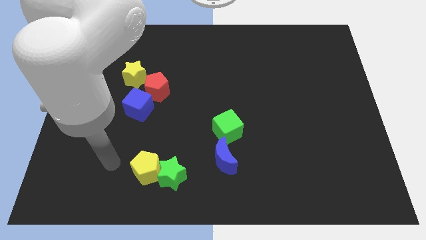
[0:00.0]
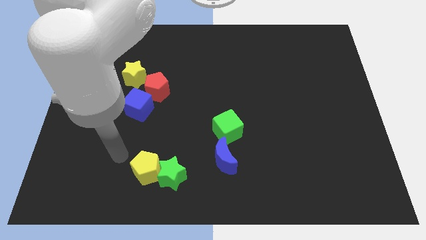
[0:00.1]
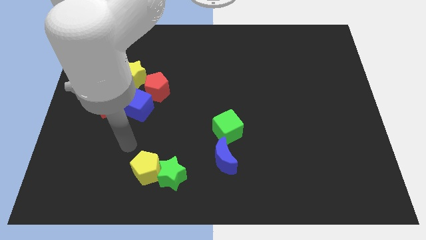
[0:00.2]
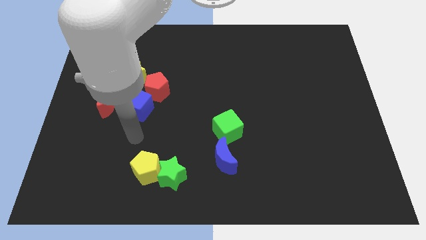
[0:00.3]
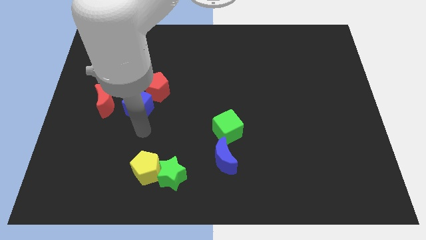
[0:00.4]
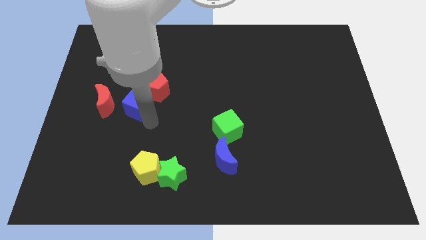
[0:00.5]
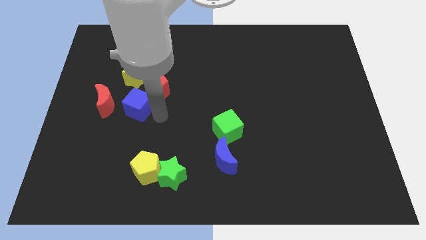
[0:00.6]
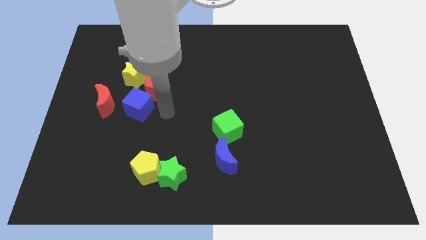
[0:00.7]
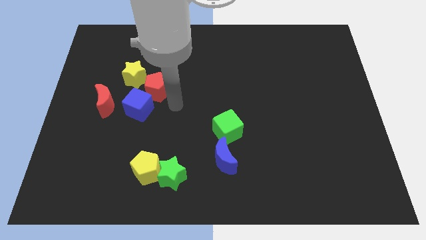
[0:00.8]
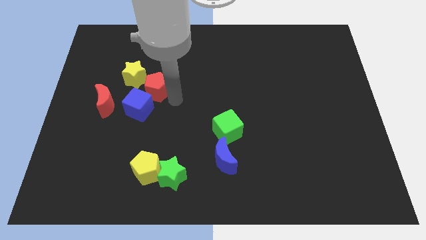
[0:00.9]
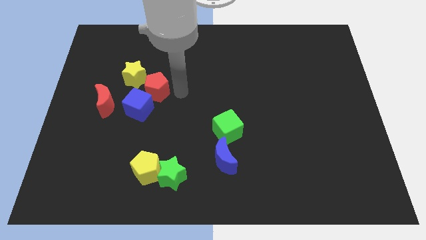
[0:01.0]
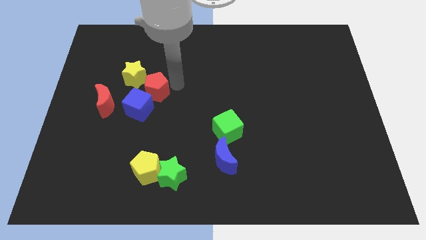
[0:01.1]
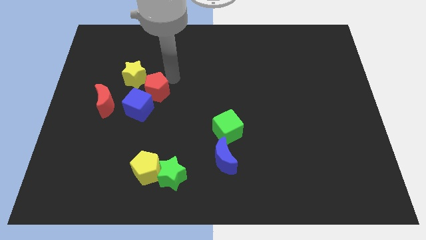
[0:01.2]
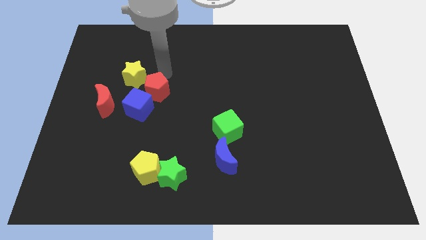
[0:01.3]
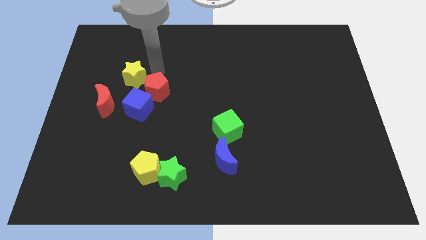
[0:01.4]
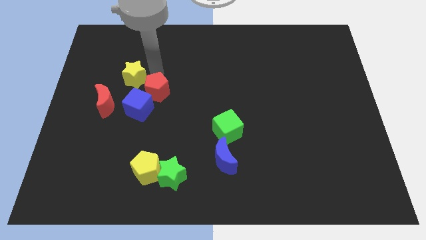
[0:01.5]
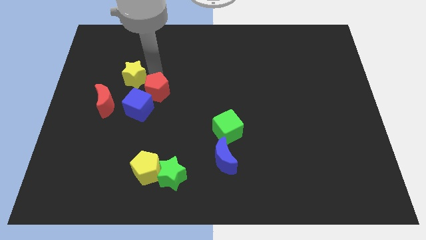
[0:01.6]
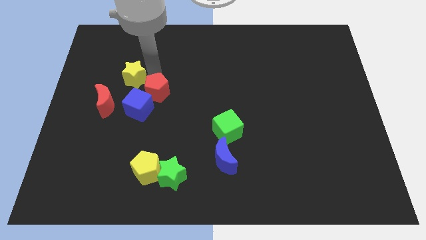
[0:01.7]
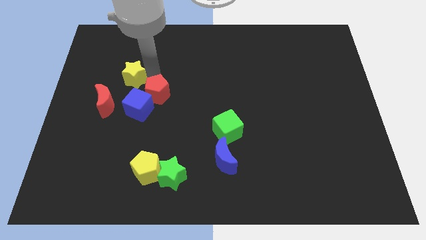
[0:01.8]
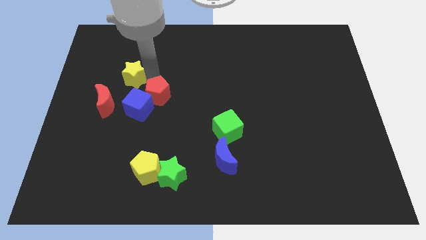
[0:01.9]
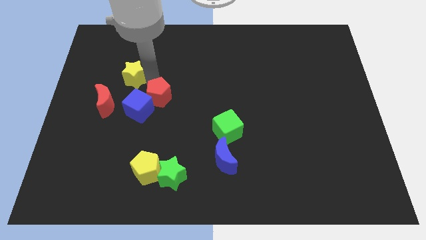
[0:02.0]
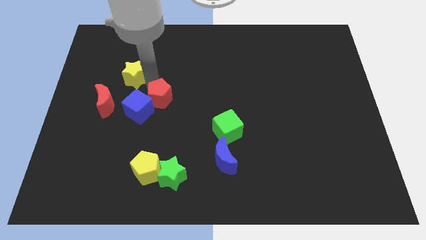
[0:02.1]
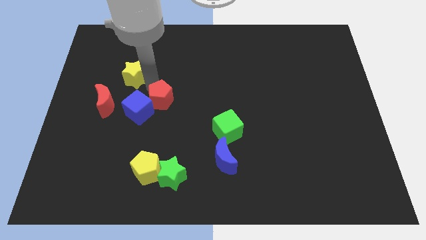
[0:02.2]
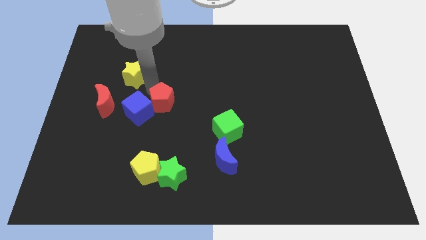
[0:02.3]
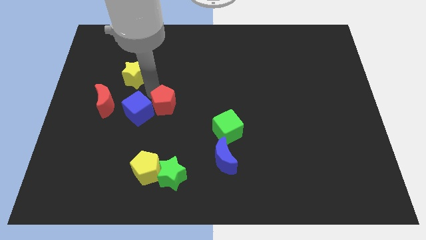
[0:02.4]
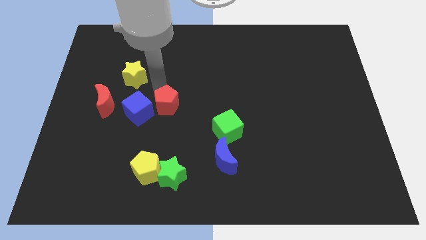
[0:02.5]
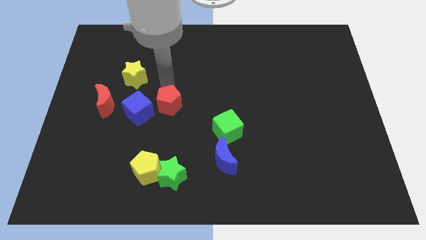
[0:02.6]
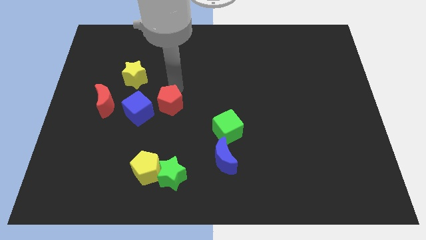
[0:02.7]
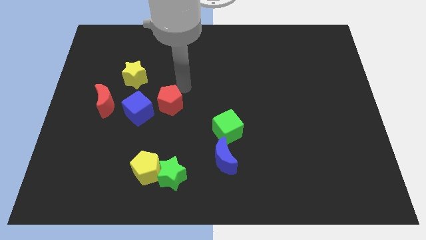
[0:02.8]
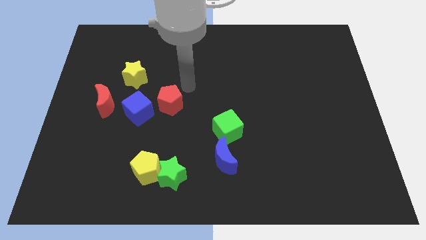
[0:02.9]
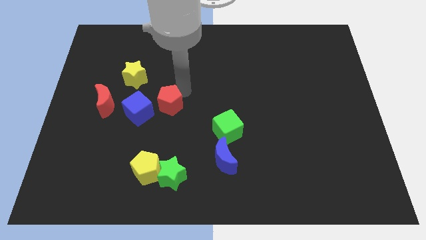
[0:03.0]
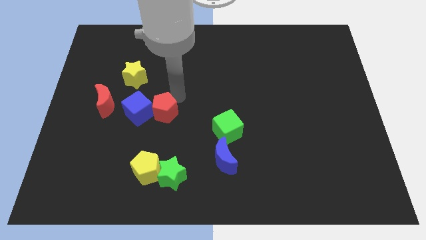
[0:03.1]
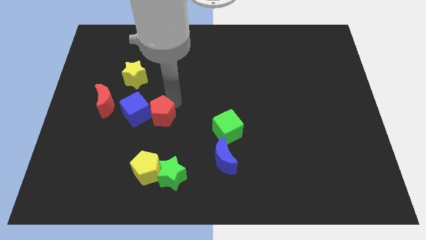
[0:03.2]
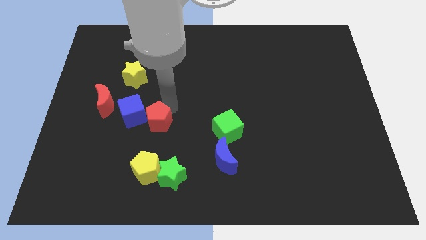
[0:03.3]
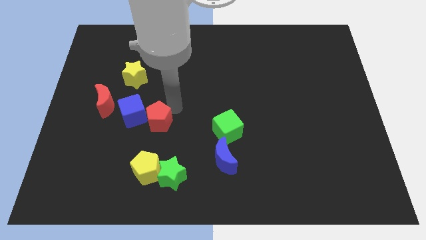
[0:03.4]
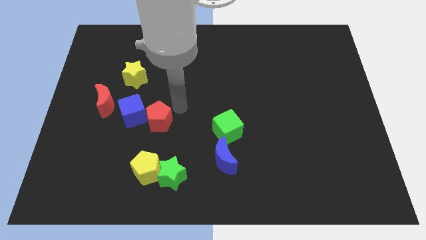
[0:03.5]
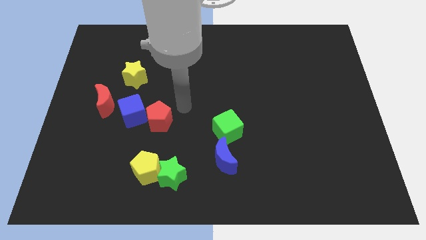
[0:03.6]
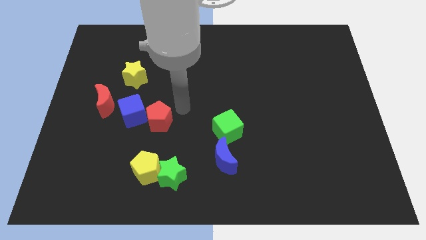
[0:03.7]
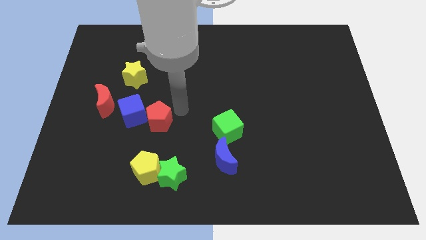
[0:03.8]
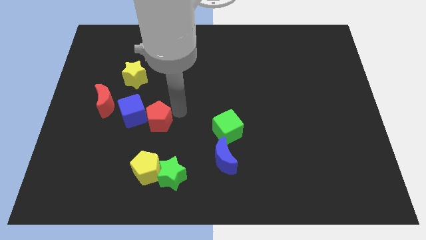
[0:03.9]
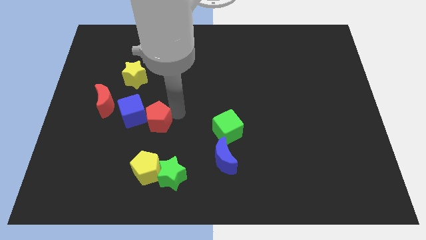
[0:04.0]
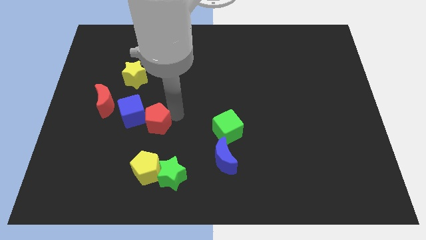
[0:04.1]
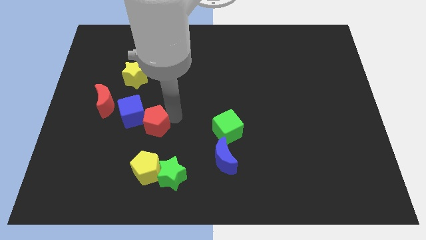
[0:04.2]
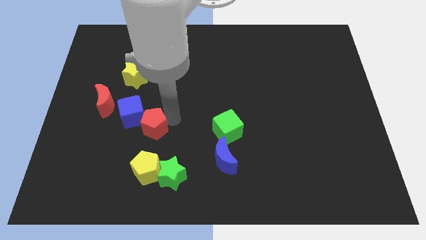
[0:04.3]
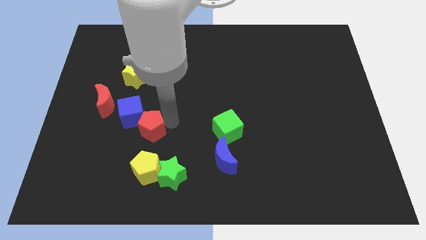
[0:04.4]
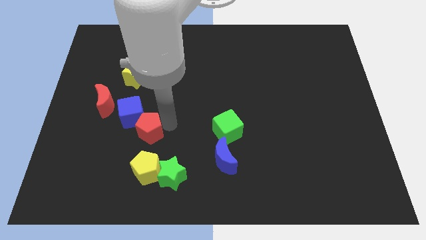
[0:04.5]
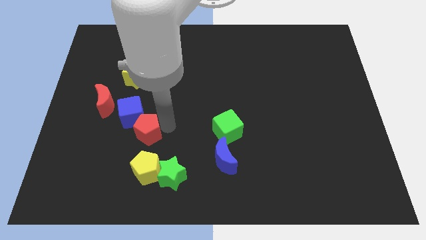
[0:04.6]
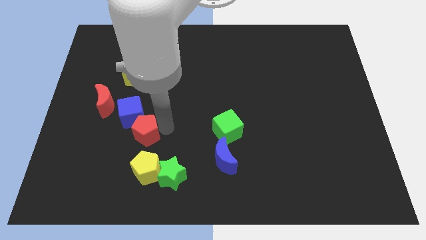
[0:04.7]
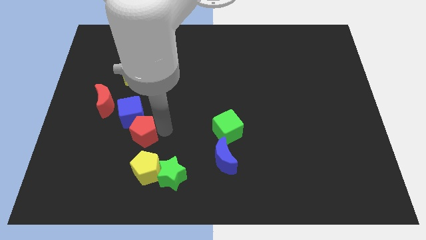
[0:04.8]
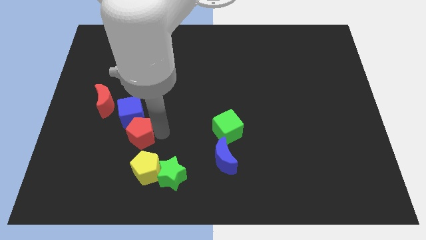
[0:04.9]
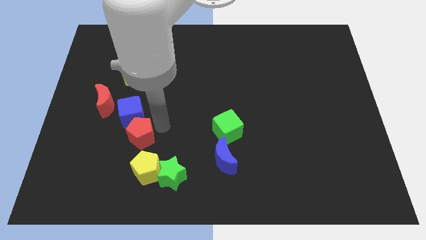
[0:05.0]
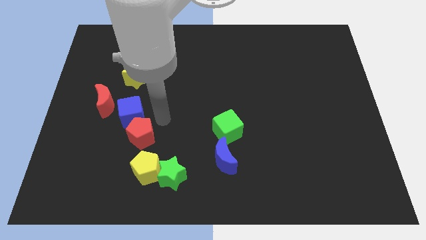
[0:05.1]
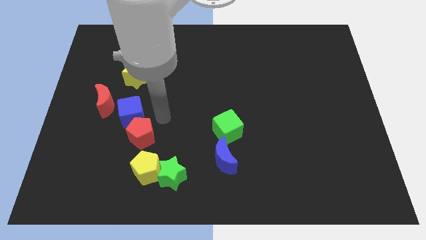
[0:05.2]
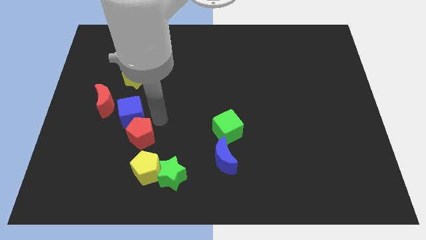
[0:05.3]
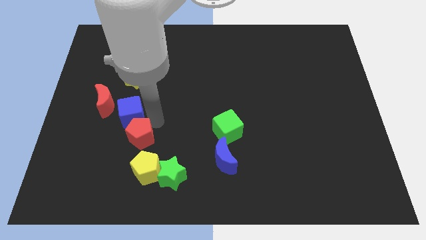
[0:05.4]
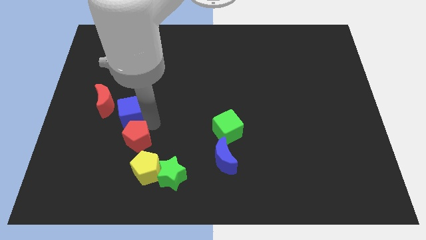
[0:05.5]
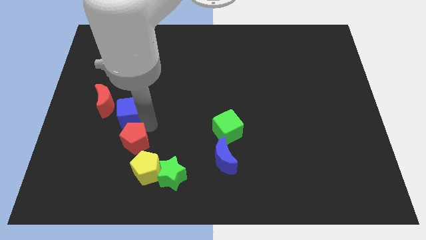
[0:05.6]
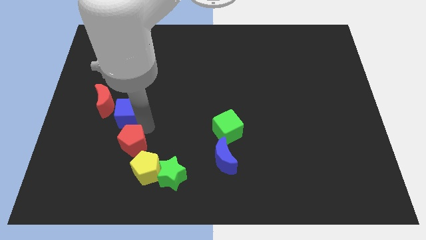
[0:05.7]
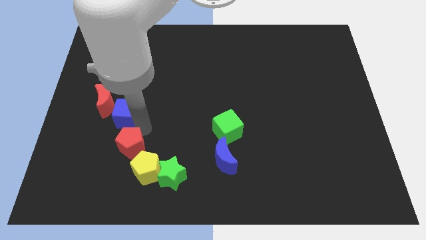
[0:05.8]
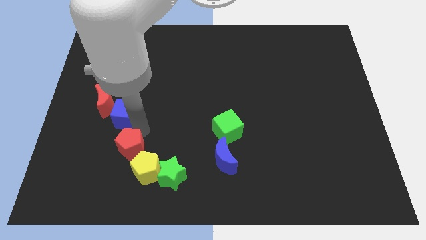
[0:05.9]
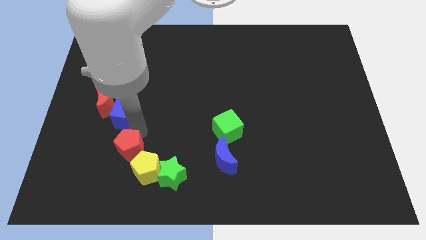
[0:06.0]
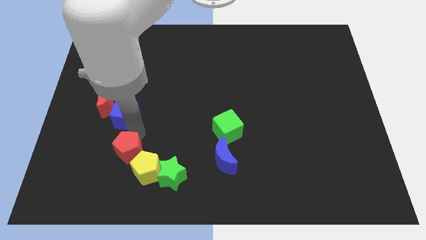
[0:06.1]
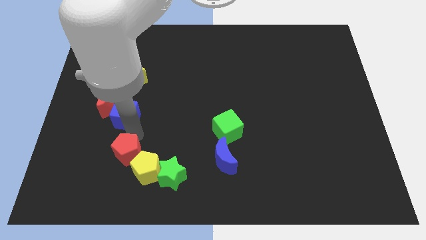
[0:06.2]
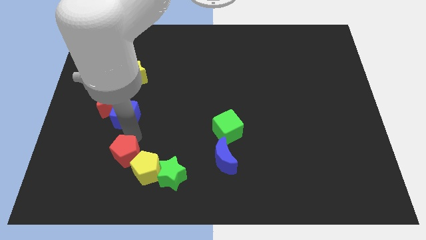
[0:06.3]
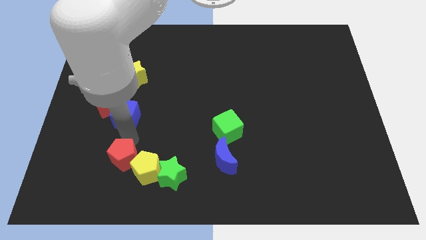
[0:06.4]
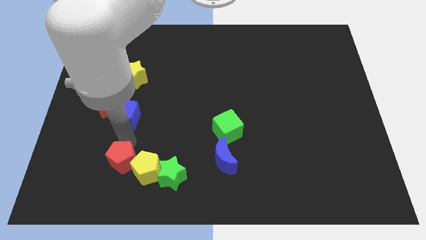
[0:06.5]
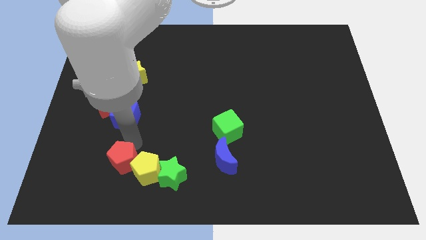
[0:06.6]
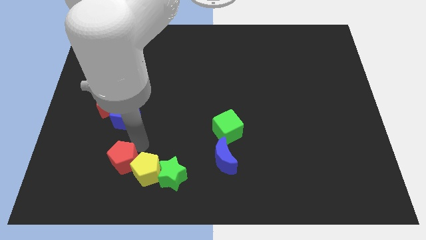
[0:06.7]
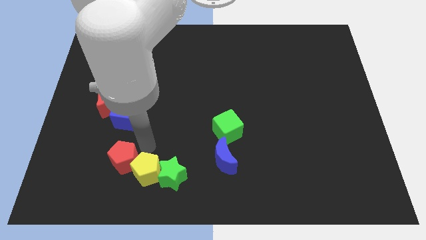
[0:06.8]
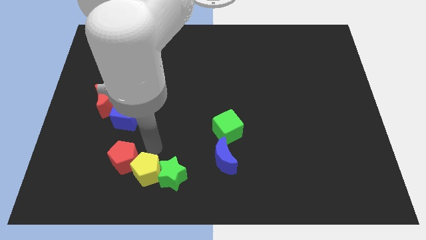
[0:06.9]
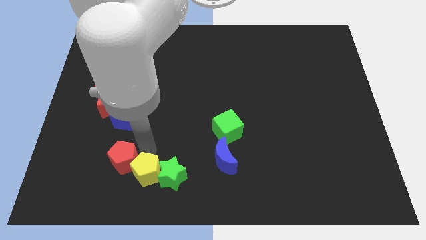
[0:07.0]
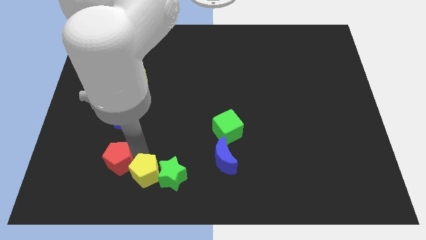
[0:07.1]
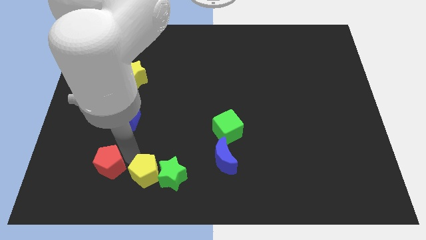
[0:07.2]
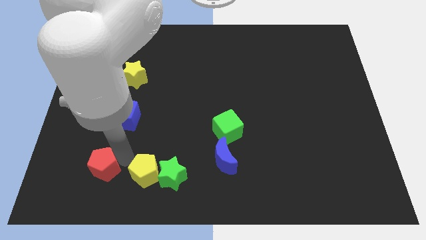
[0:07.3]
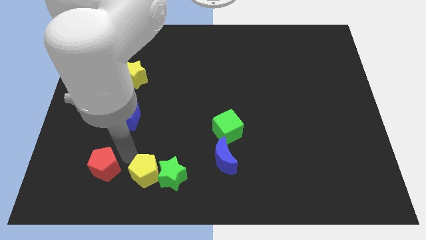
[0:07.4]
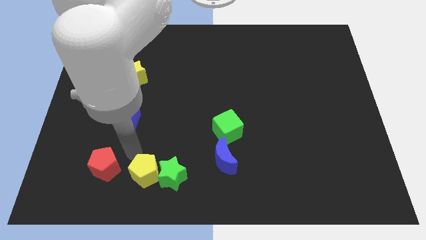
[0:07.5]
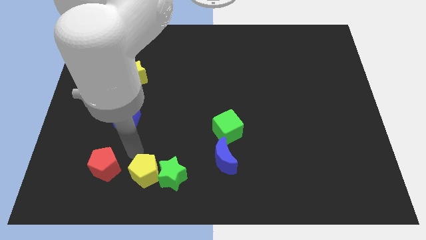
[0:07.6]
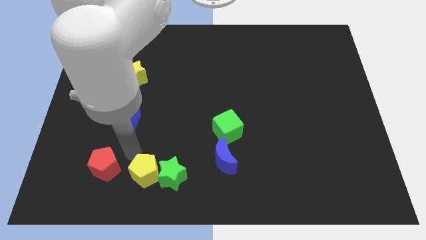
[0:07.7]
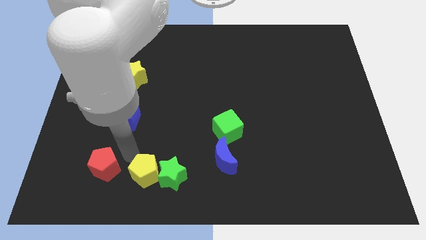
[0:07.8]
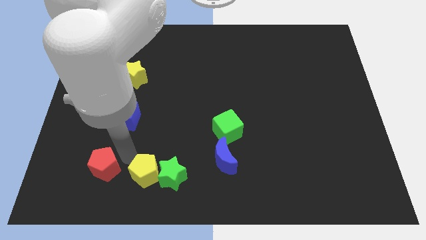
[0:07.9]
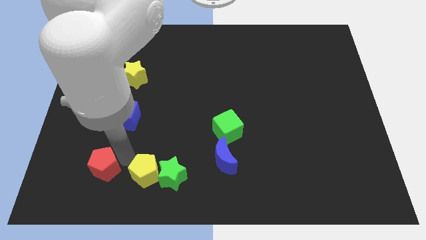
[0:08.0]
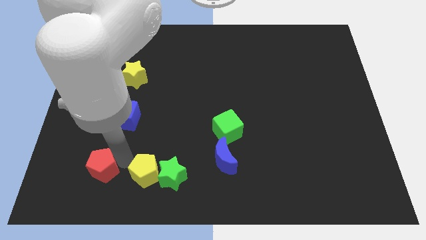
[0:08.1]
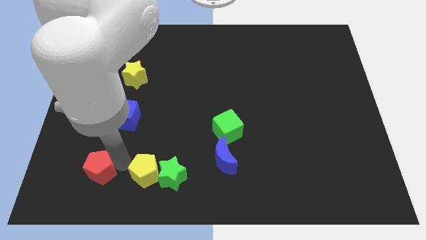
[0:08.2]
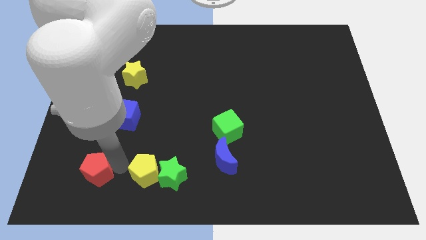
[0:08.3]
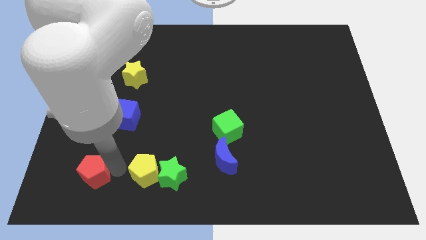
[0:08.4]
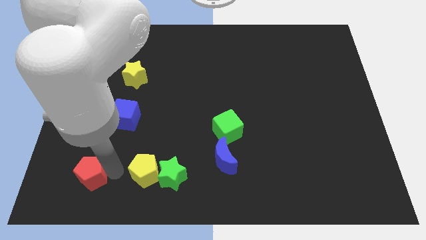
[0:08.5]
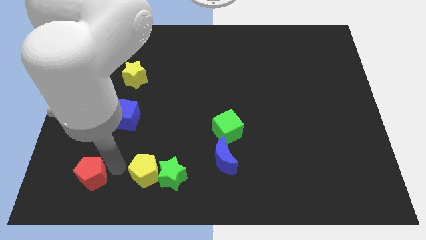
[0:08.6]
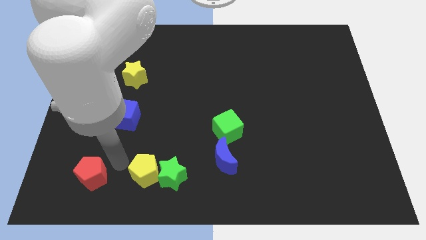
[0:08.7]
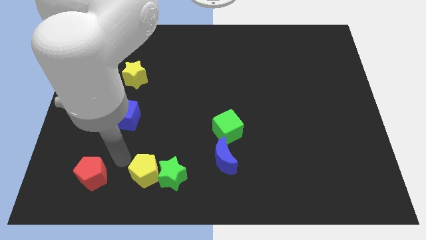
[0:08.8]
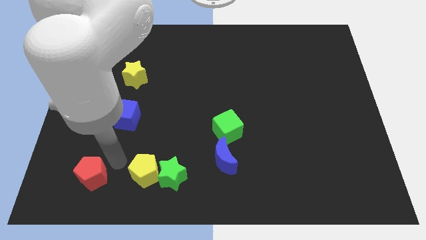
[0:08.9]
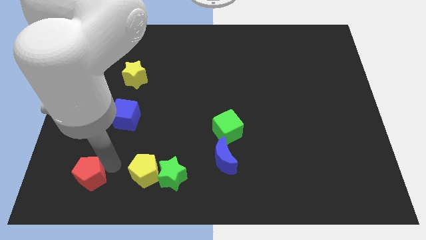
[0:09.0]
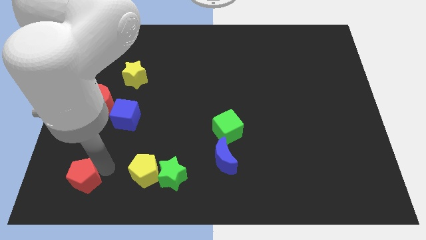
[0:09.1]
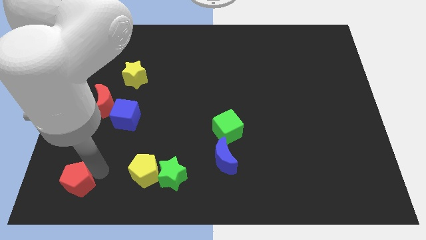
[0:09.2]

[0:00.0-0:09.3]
push the red pentagon to the bottom left
